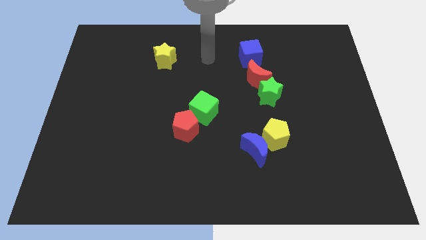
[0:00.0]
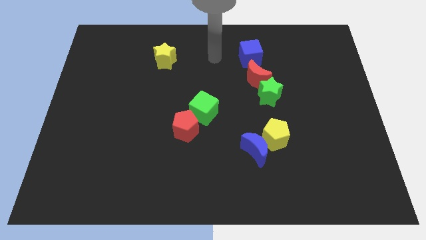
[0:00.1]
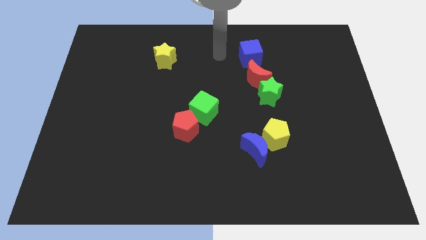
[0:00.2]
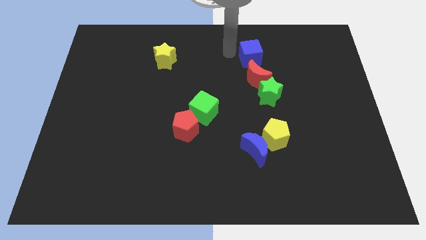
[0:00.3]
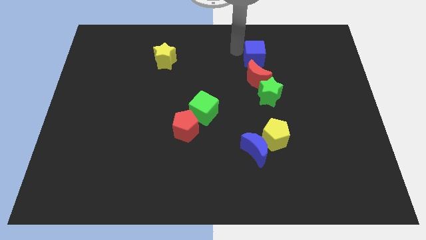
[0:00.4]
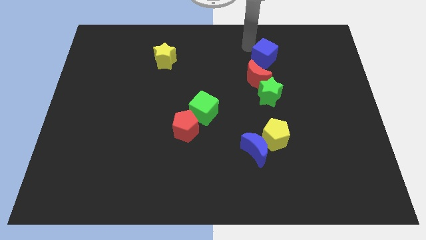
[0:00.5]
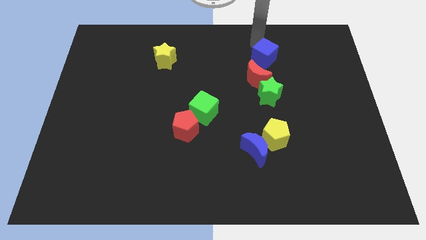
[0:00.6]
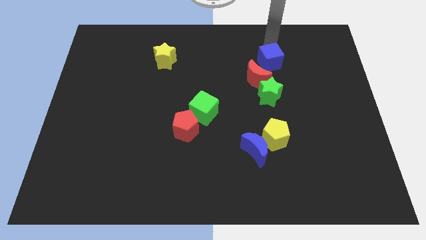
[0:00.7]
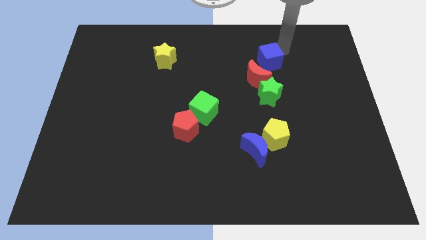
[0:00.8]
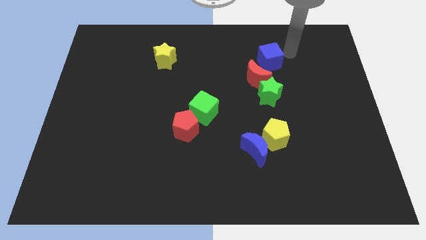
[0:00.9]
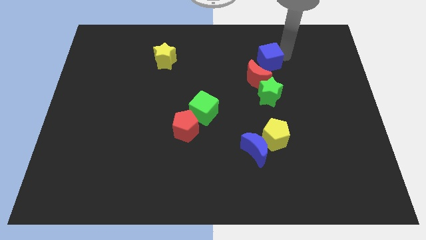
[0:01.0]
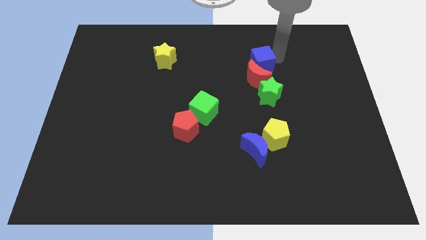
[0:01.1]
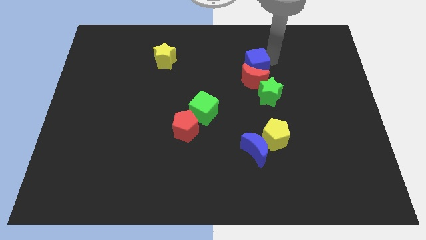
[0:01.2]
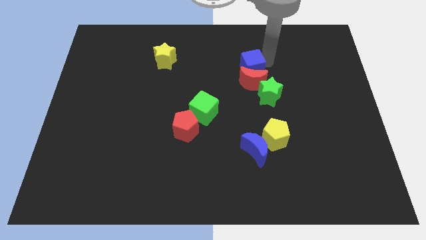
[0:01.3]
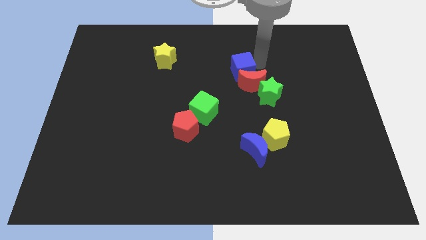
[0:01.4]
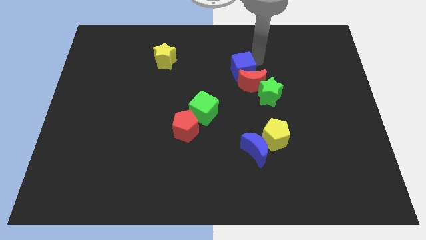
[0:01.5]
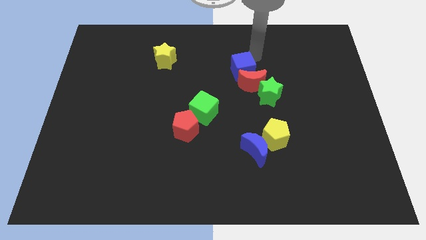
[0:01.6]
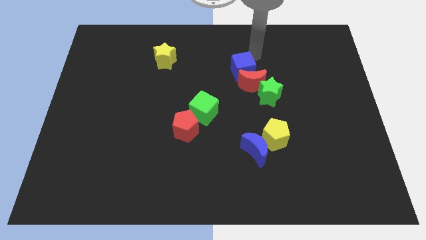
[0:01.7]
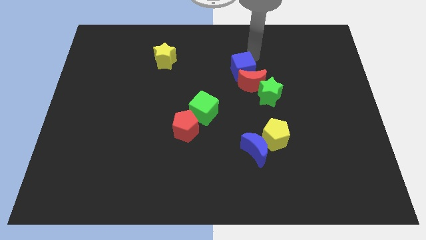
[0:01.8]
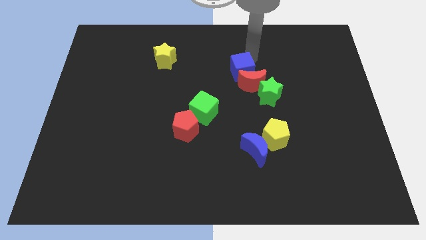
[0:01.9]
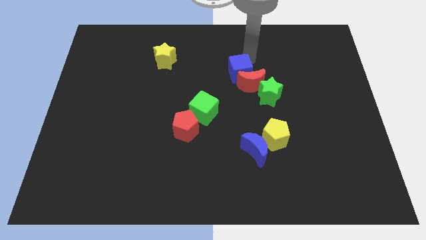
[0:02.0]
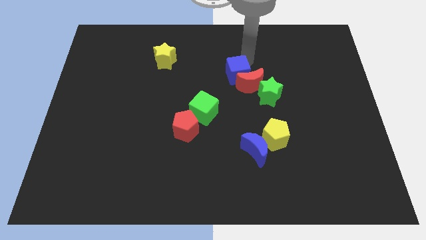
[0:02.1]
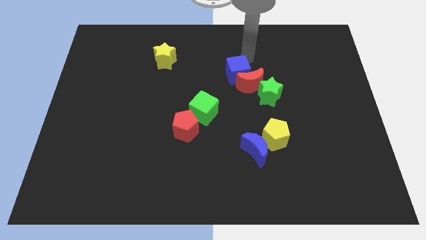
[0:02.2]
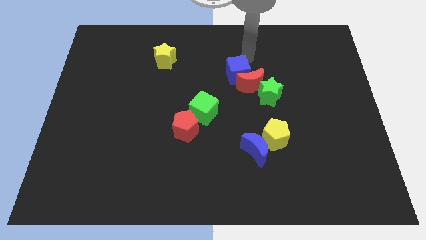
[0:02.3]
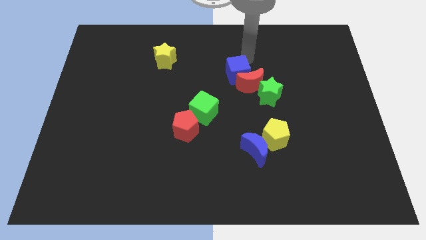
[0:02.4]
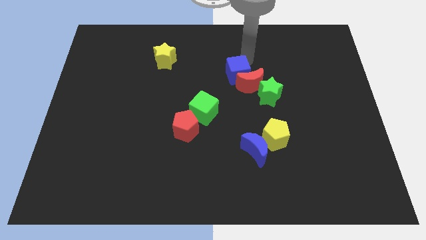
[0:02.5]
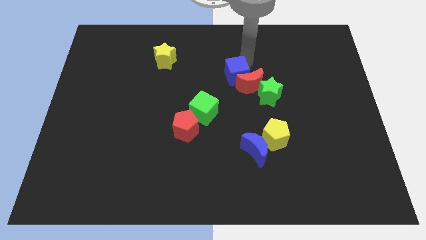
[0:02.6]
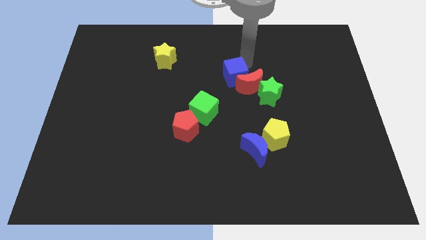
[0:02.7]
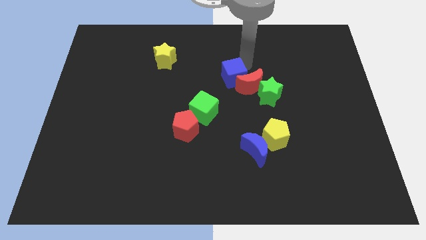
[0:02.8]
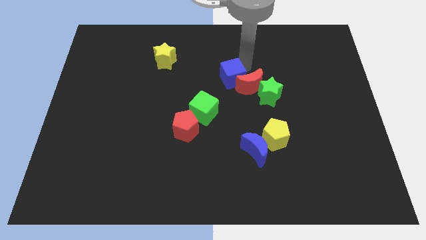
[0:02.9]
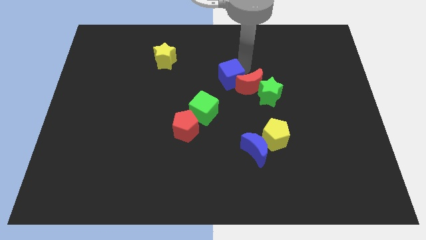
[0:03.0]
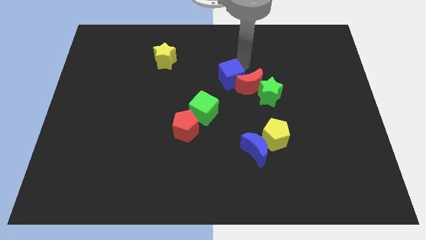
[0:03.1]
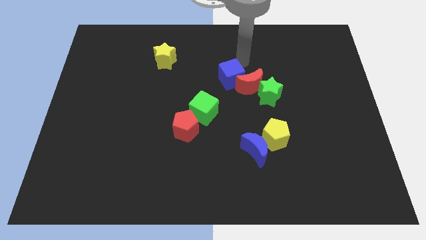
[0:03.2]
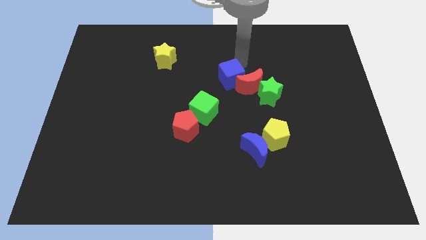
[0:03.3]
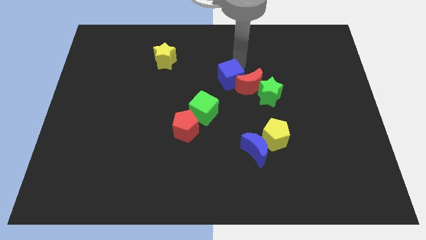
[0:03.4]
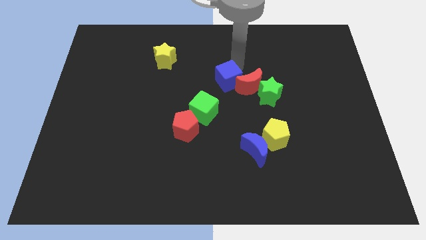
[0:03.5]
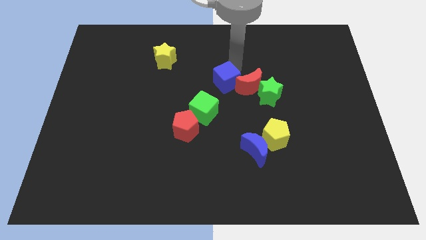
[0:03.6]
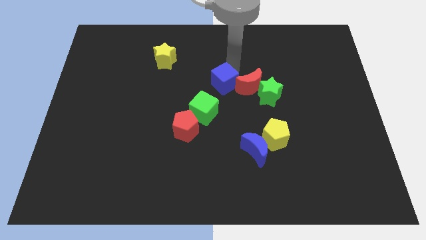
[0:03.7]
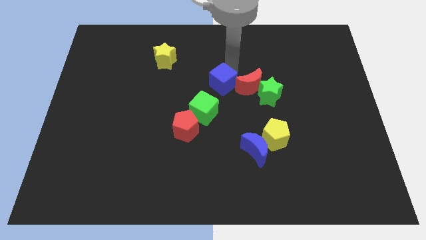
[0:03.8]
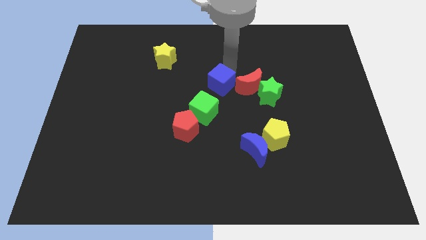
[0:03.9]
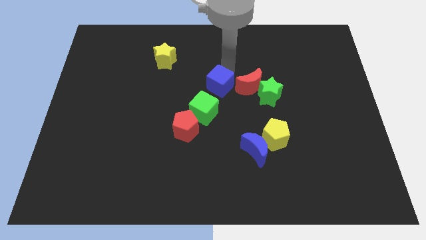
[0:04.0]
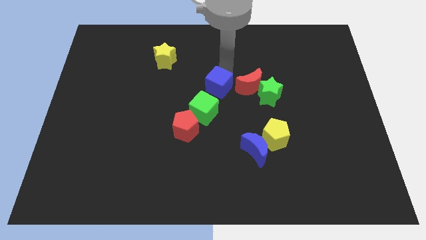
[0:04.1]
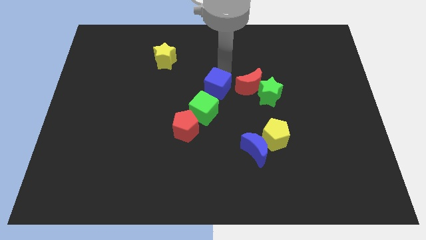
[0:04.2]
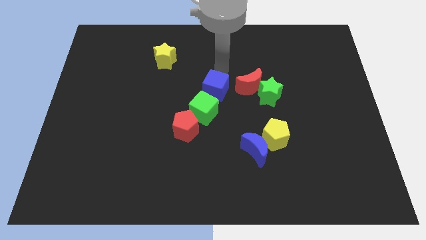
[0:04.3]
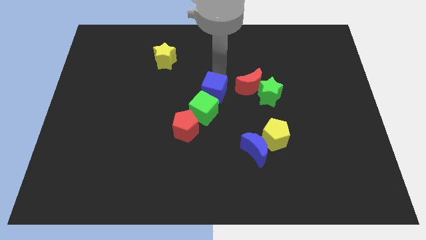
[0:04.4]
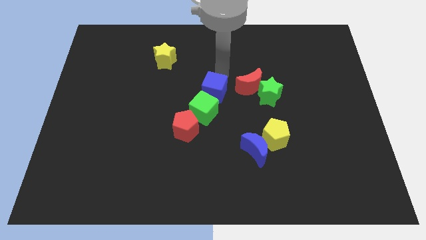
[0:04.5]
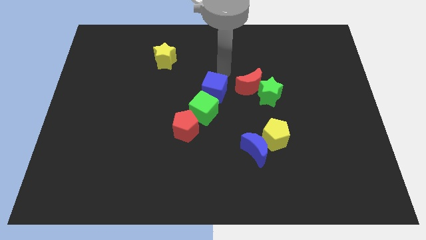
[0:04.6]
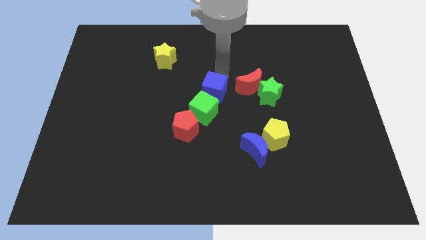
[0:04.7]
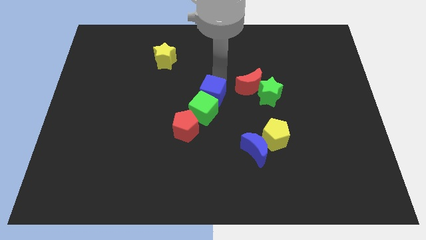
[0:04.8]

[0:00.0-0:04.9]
put the blue cube towards the green cube

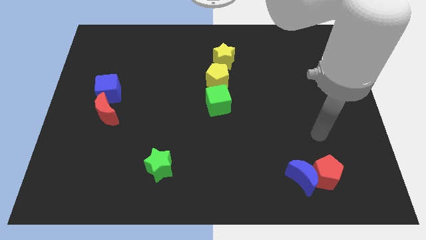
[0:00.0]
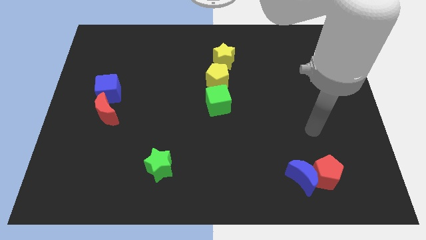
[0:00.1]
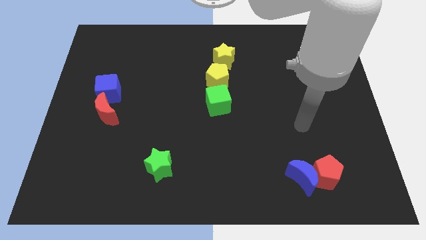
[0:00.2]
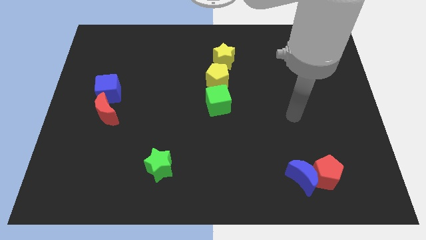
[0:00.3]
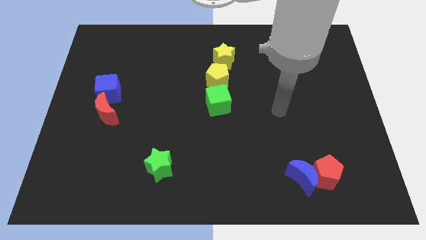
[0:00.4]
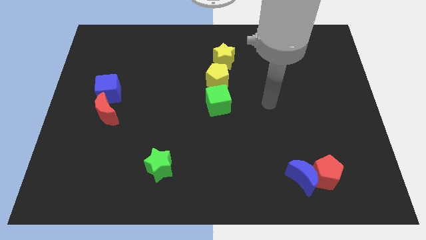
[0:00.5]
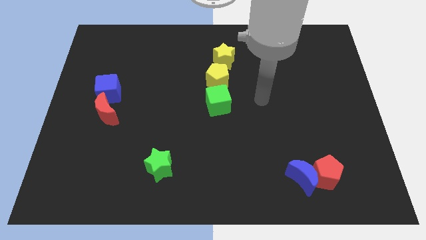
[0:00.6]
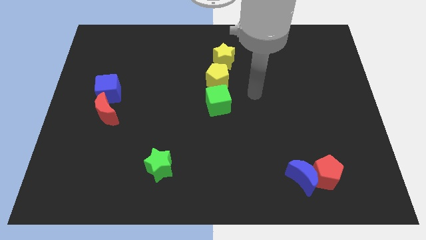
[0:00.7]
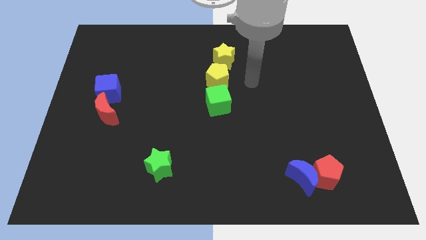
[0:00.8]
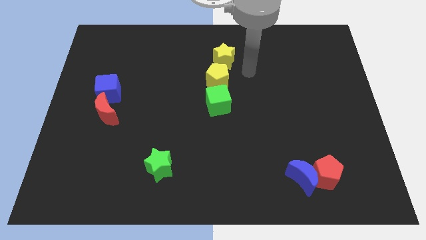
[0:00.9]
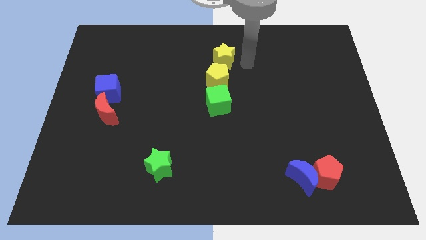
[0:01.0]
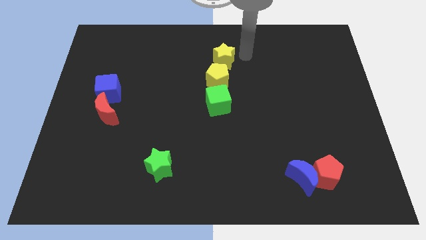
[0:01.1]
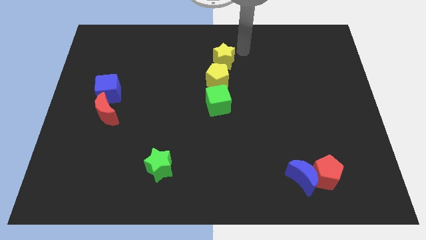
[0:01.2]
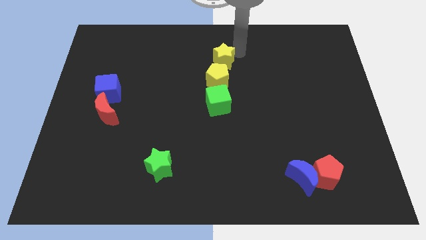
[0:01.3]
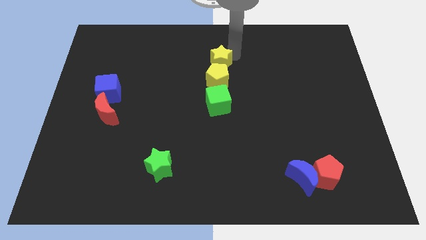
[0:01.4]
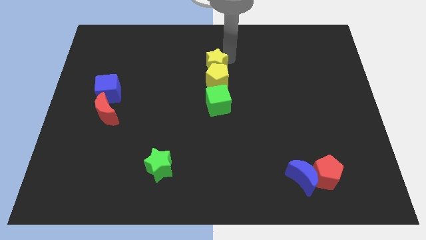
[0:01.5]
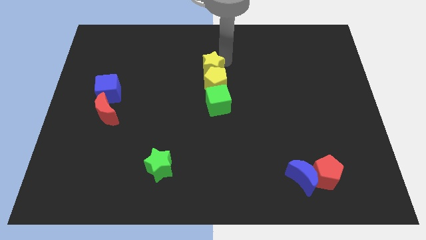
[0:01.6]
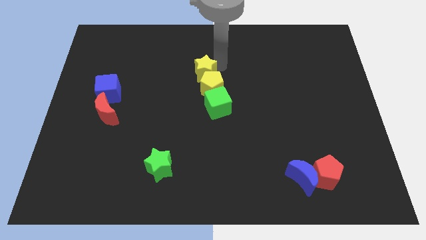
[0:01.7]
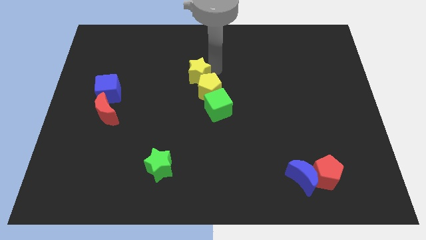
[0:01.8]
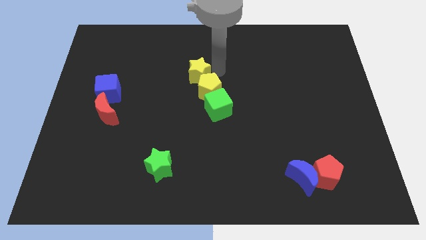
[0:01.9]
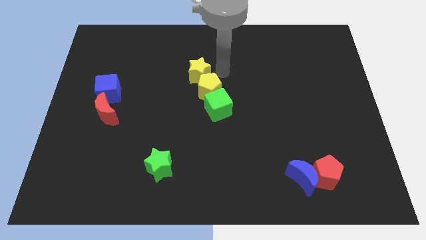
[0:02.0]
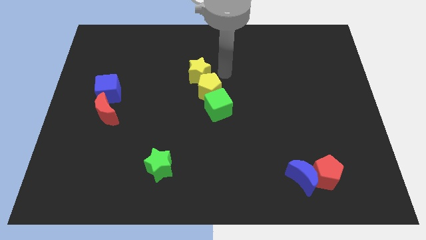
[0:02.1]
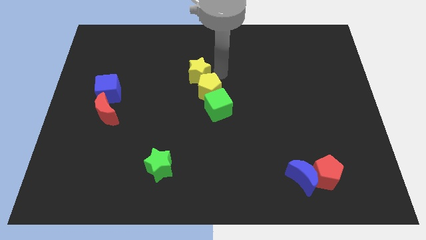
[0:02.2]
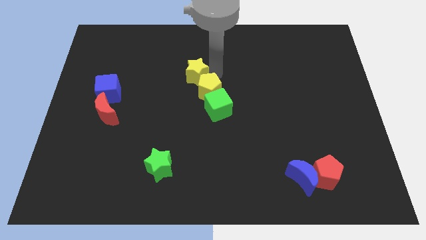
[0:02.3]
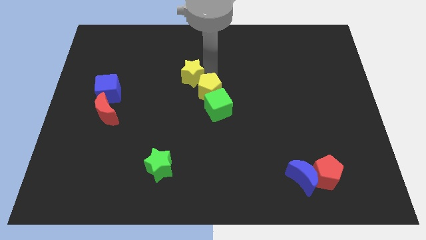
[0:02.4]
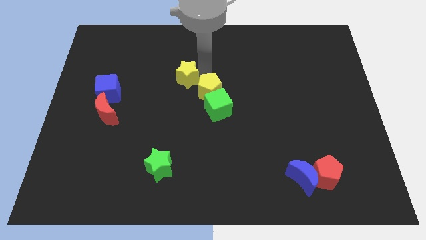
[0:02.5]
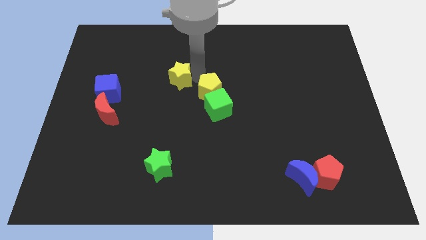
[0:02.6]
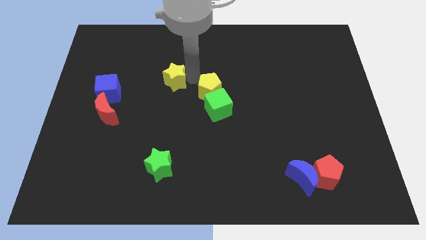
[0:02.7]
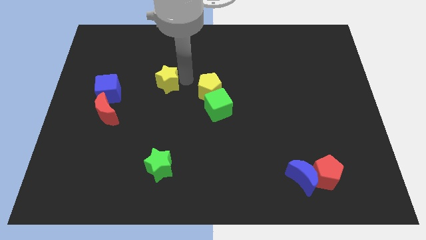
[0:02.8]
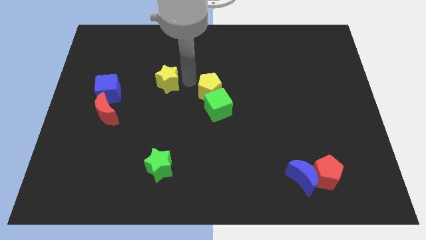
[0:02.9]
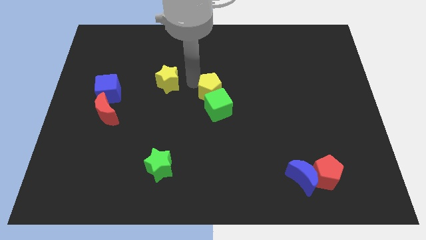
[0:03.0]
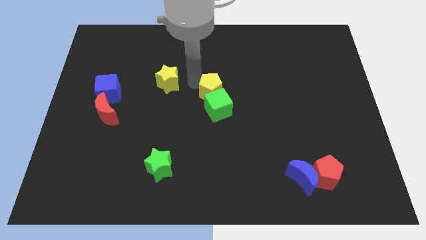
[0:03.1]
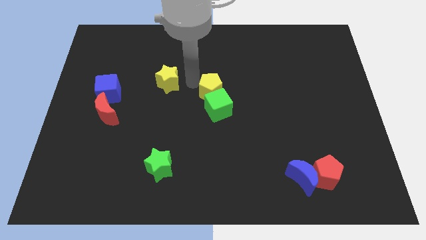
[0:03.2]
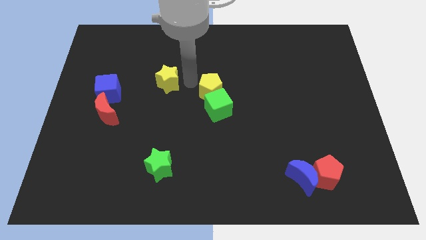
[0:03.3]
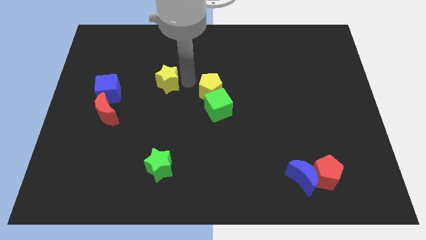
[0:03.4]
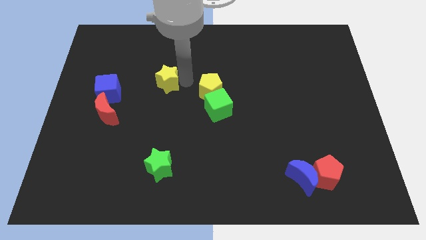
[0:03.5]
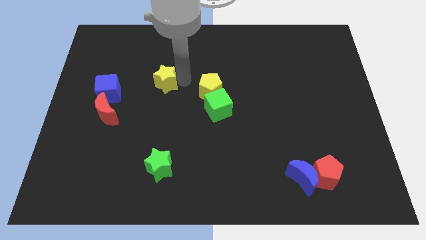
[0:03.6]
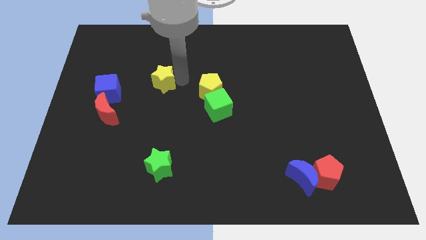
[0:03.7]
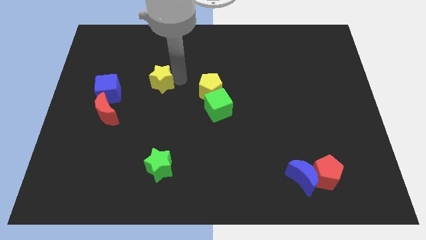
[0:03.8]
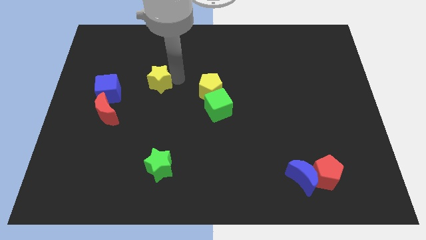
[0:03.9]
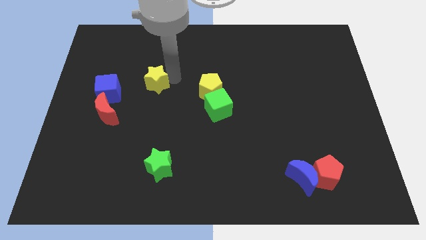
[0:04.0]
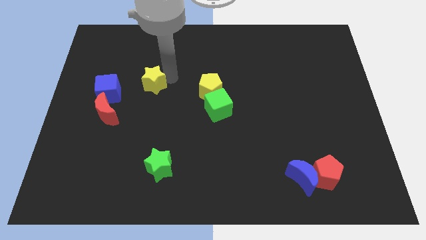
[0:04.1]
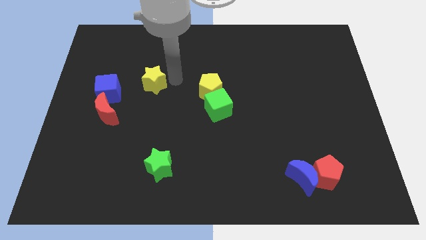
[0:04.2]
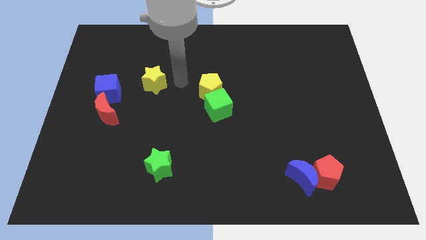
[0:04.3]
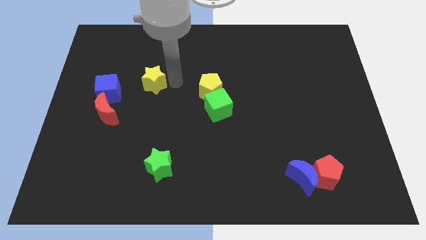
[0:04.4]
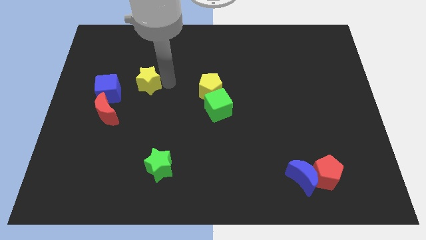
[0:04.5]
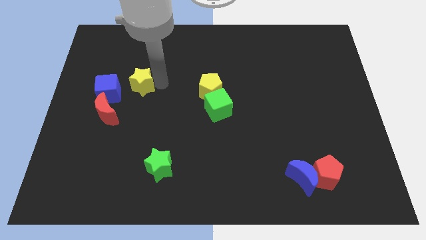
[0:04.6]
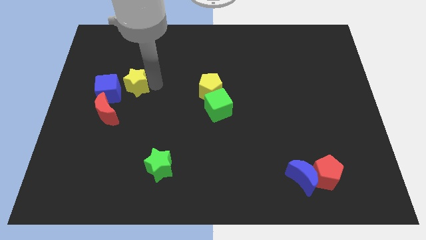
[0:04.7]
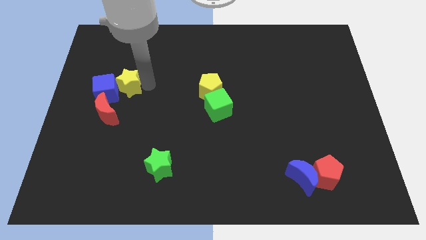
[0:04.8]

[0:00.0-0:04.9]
slide the yellow star to the blue cube
